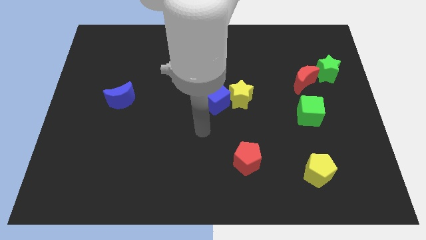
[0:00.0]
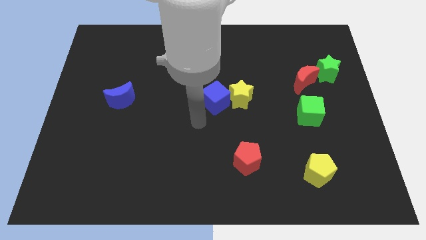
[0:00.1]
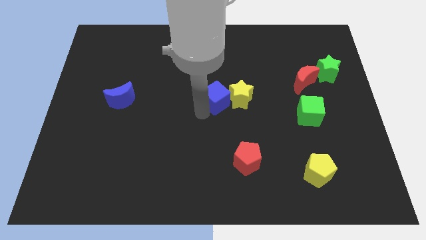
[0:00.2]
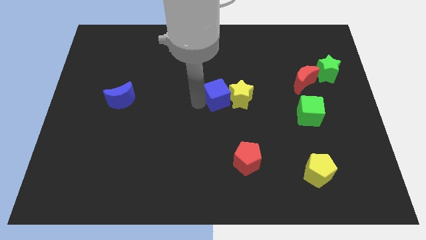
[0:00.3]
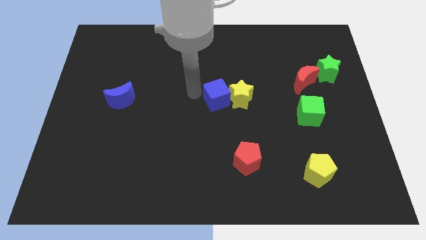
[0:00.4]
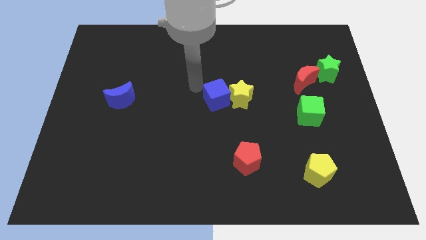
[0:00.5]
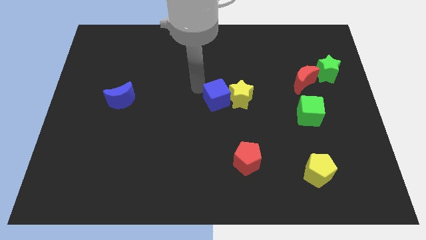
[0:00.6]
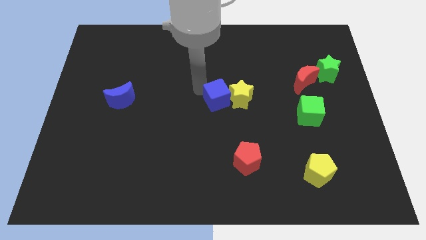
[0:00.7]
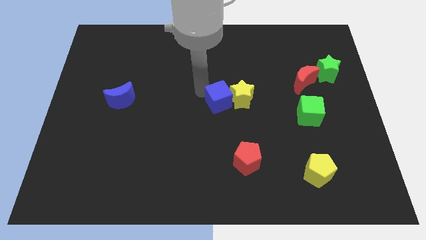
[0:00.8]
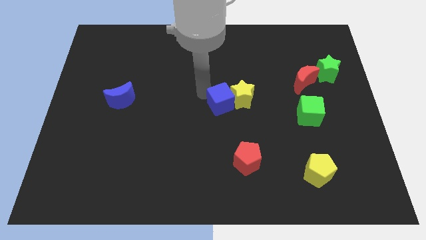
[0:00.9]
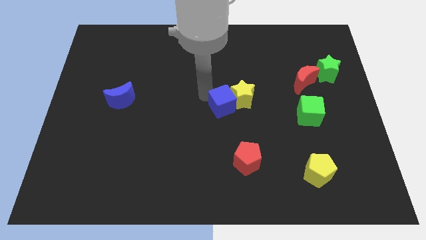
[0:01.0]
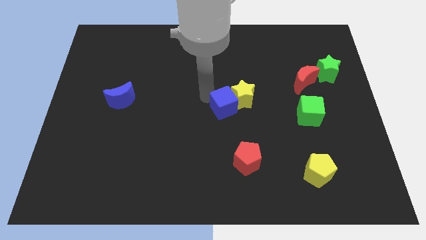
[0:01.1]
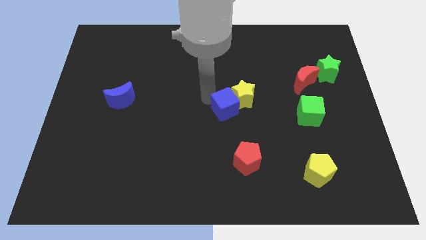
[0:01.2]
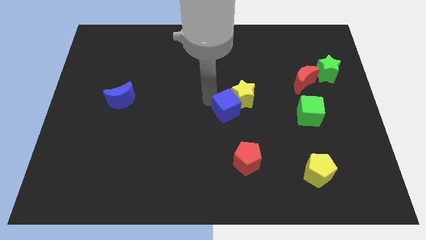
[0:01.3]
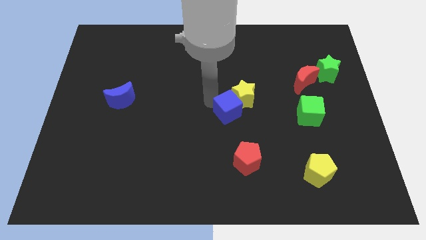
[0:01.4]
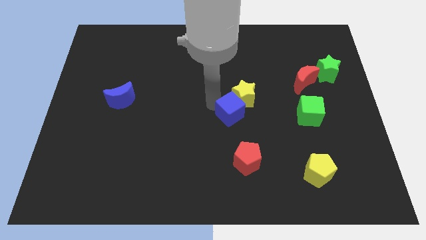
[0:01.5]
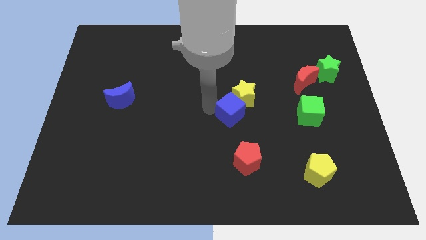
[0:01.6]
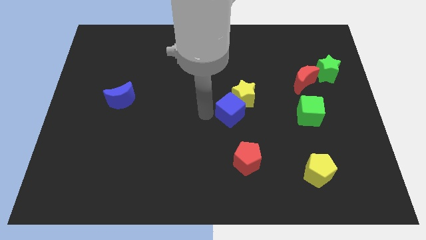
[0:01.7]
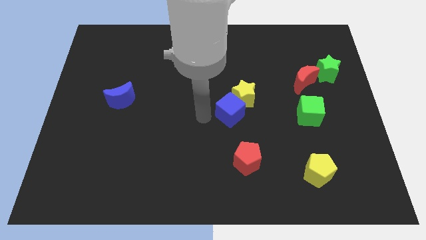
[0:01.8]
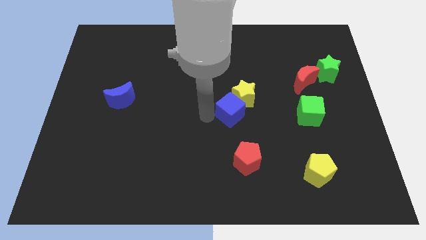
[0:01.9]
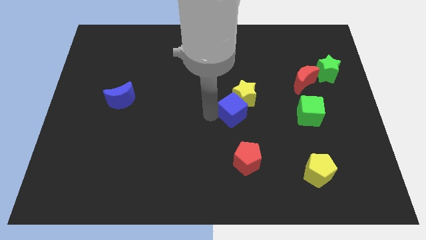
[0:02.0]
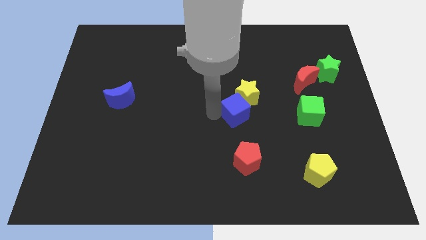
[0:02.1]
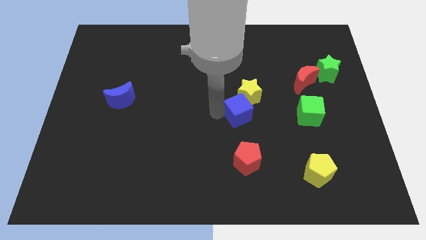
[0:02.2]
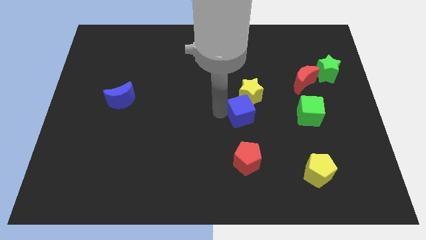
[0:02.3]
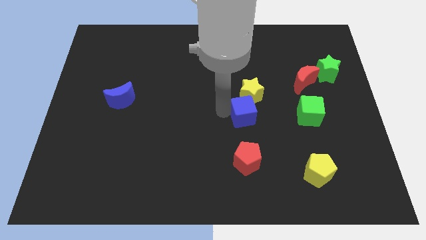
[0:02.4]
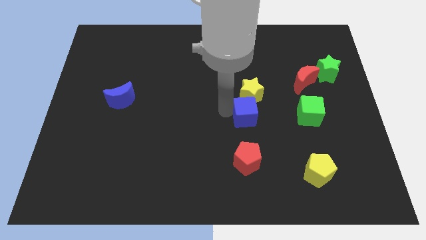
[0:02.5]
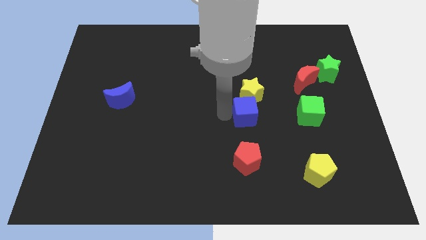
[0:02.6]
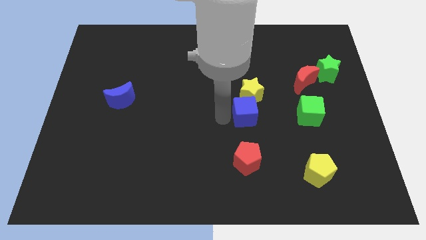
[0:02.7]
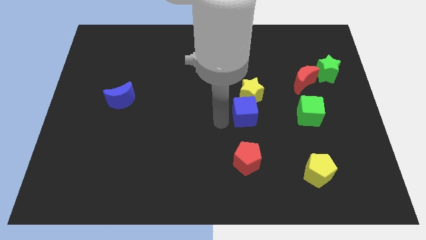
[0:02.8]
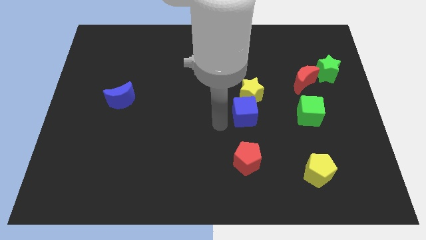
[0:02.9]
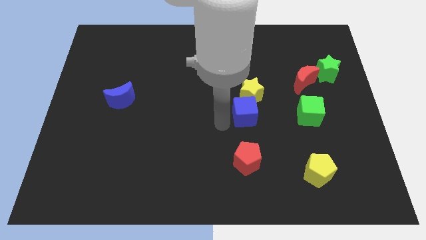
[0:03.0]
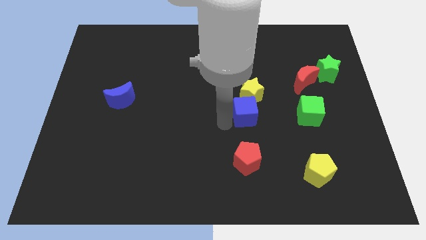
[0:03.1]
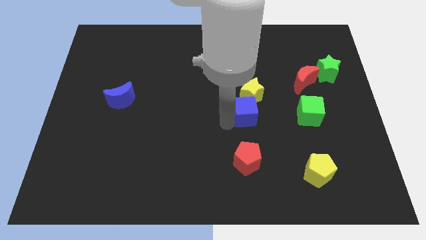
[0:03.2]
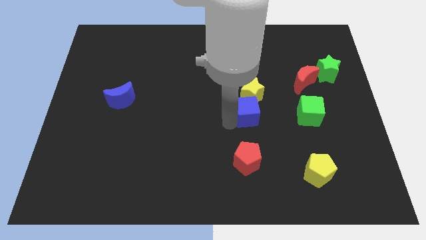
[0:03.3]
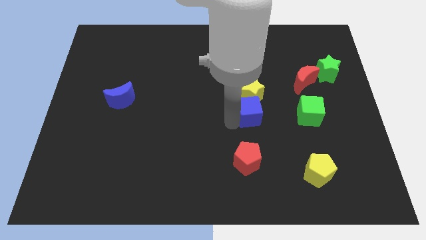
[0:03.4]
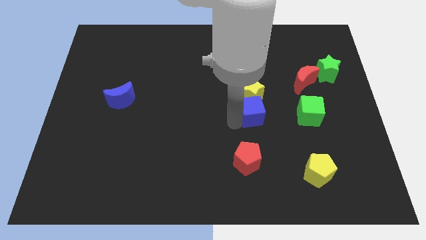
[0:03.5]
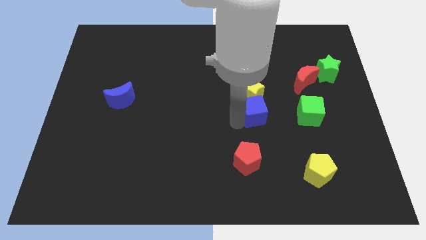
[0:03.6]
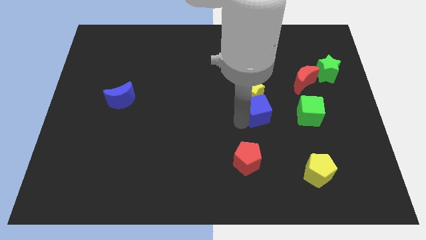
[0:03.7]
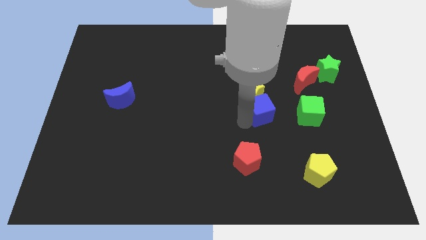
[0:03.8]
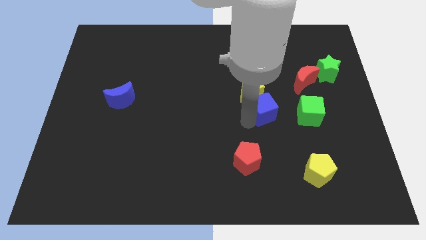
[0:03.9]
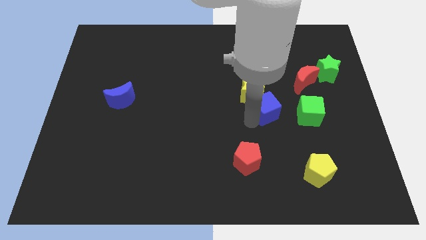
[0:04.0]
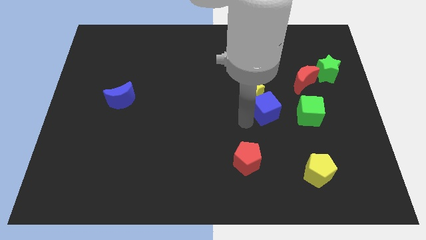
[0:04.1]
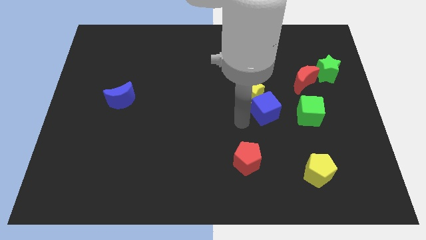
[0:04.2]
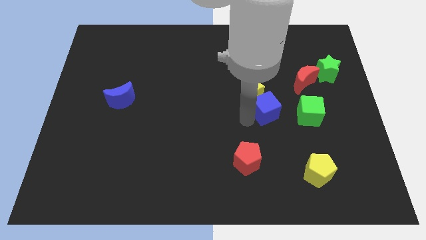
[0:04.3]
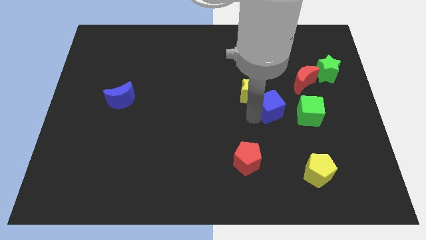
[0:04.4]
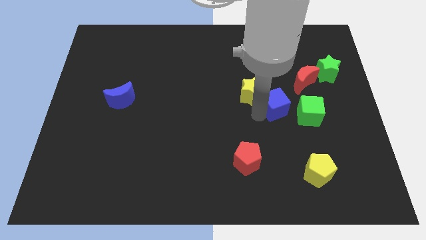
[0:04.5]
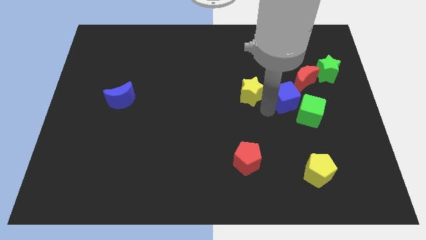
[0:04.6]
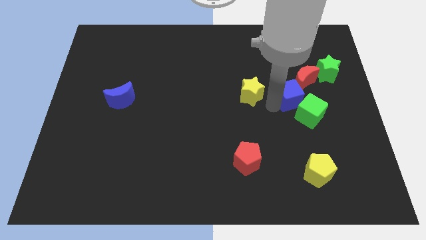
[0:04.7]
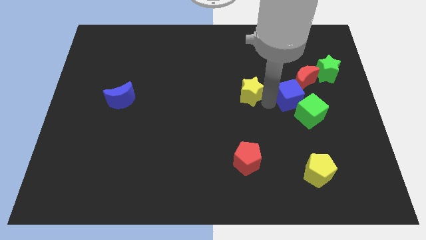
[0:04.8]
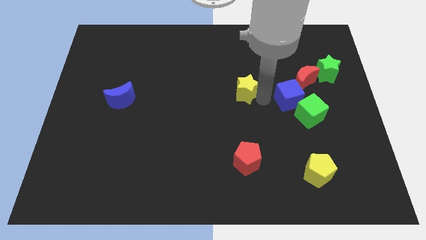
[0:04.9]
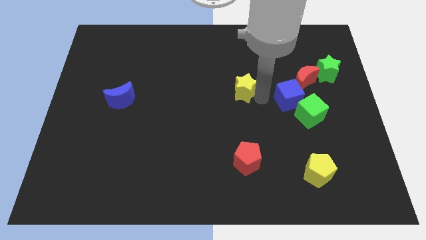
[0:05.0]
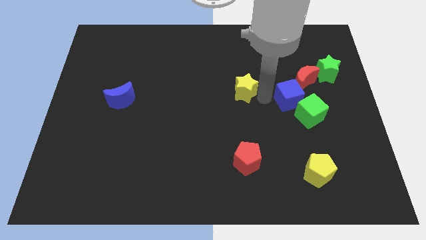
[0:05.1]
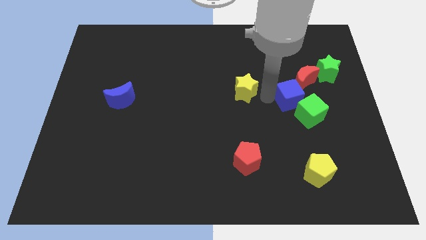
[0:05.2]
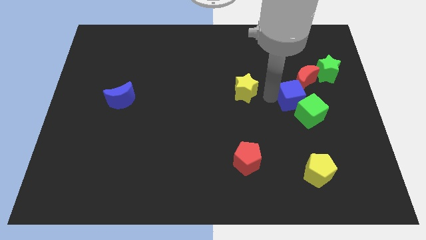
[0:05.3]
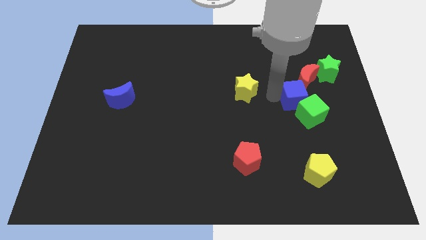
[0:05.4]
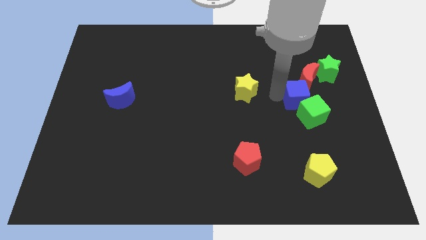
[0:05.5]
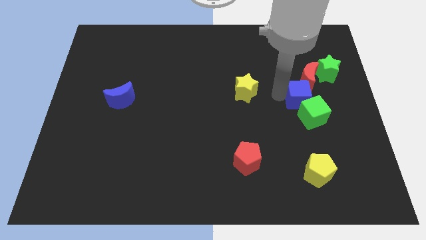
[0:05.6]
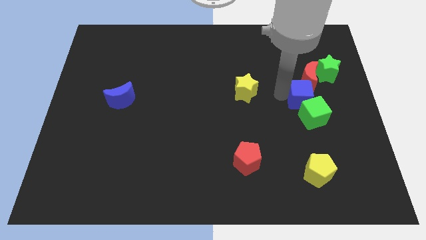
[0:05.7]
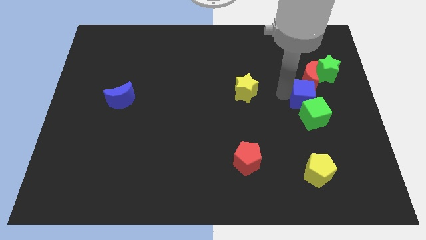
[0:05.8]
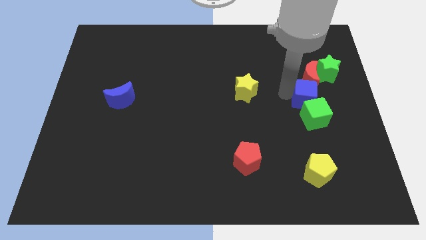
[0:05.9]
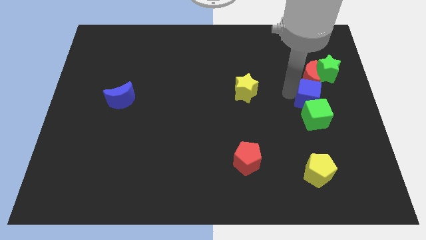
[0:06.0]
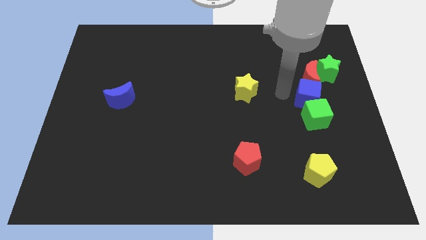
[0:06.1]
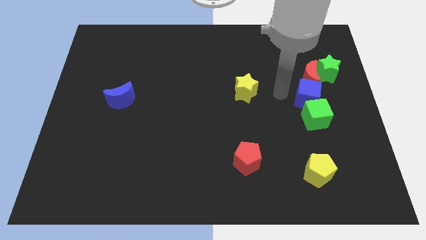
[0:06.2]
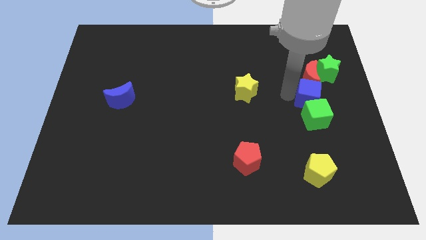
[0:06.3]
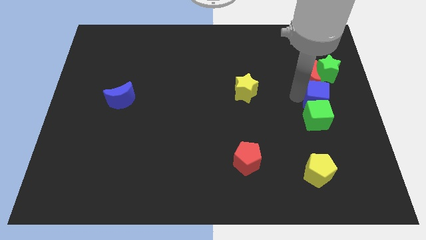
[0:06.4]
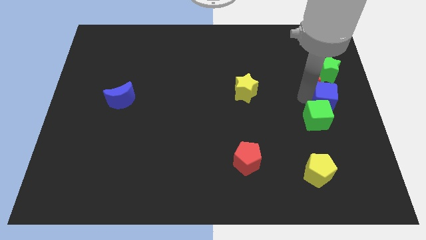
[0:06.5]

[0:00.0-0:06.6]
move the blue cube to the center right

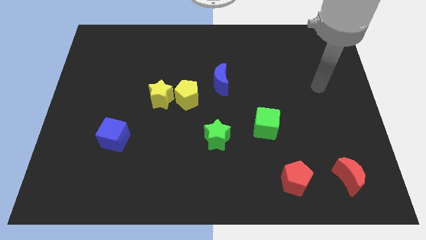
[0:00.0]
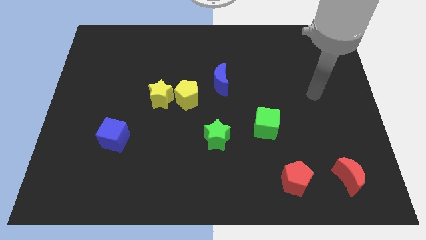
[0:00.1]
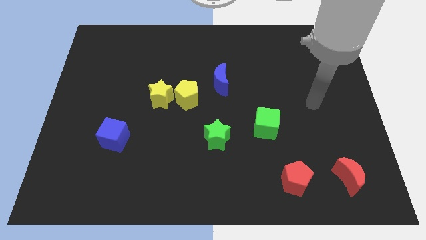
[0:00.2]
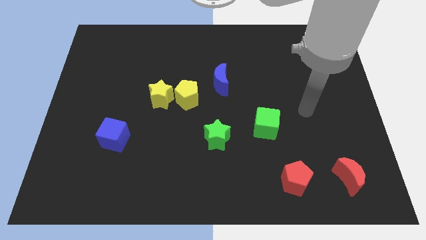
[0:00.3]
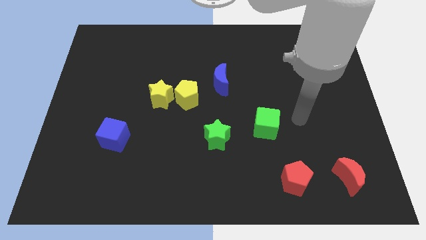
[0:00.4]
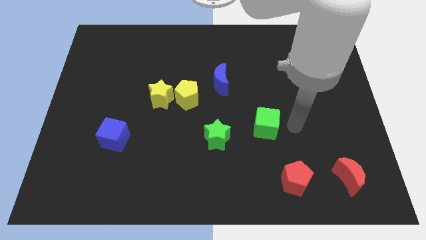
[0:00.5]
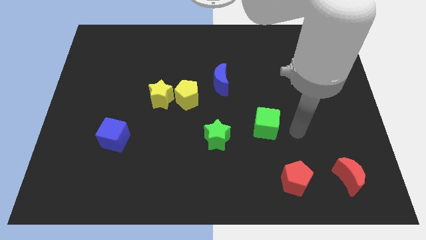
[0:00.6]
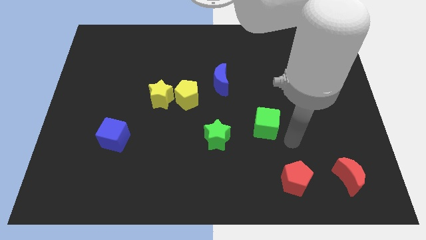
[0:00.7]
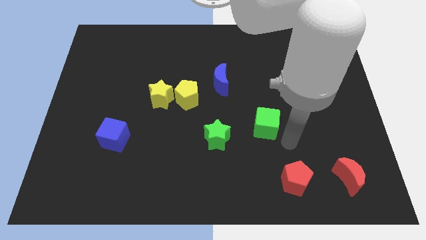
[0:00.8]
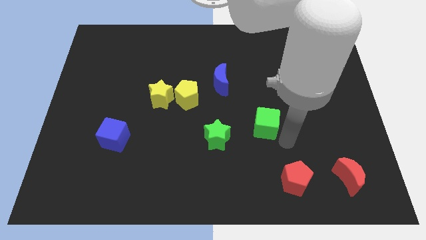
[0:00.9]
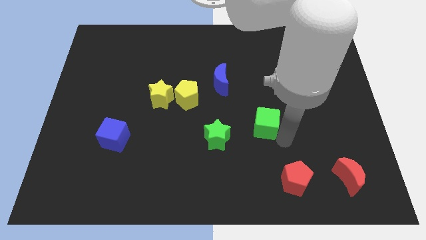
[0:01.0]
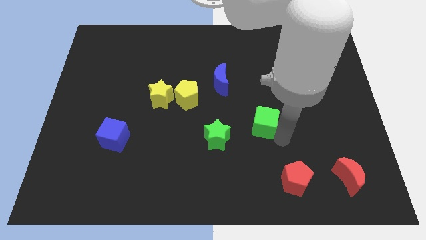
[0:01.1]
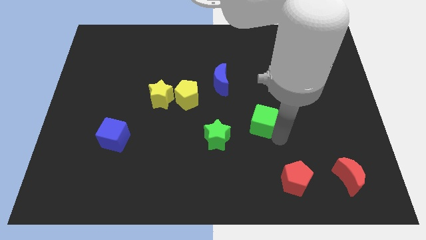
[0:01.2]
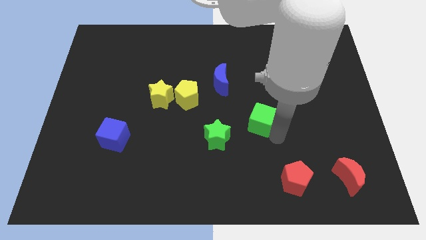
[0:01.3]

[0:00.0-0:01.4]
put the green cube to the center of the board
